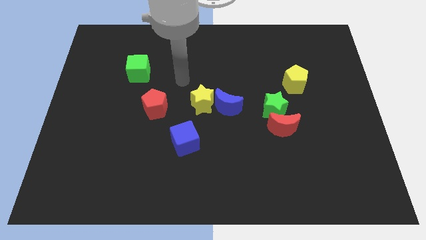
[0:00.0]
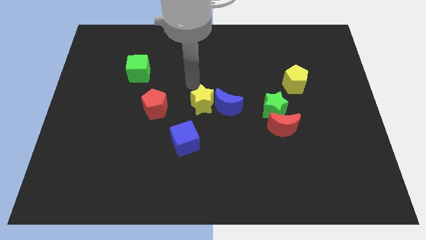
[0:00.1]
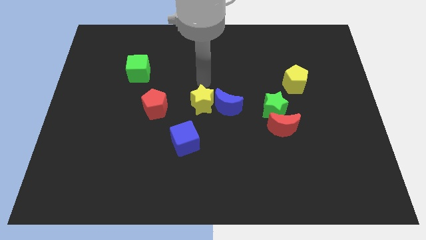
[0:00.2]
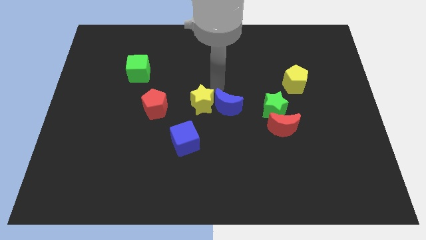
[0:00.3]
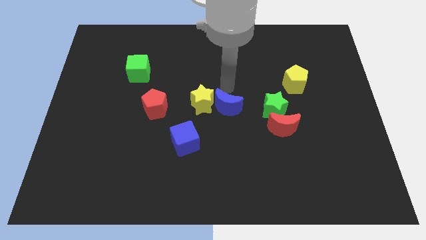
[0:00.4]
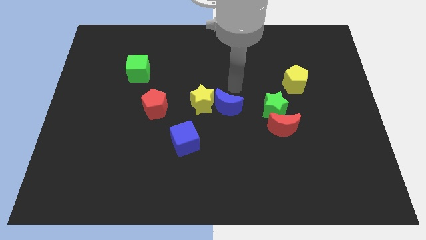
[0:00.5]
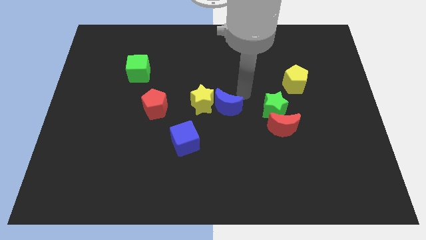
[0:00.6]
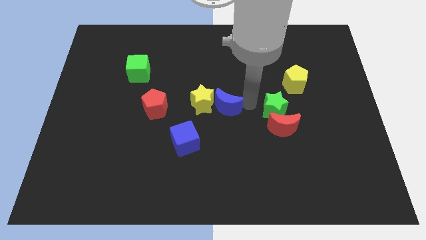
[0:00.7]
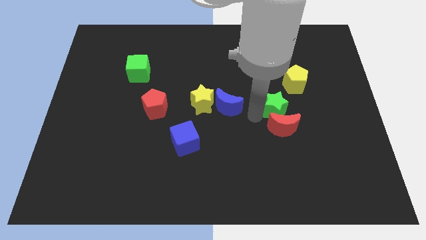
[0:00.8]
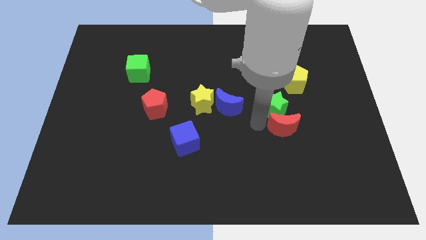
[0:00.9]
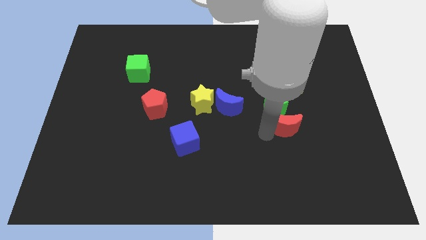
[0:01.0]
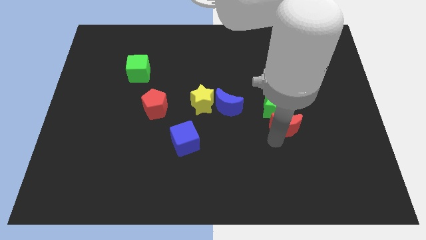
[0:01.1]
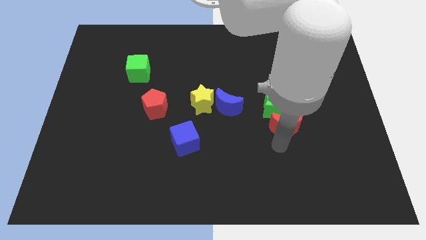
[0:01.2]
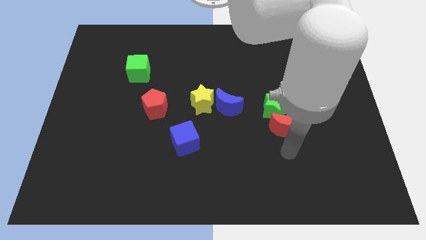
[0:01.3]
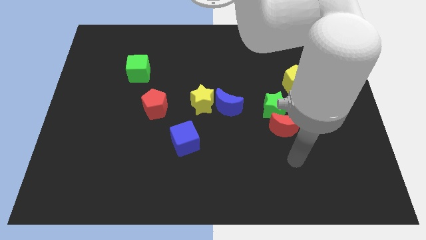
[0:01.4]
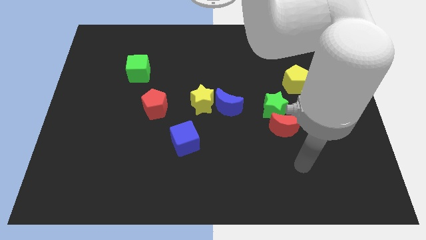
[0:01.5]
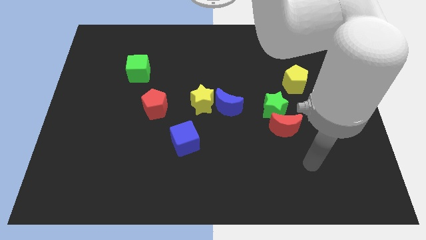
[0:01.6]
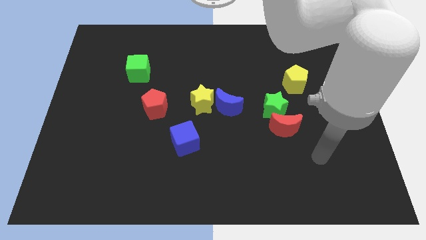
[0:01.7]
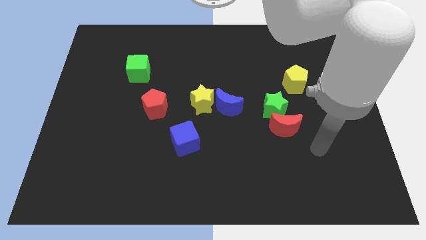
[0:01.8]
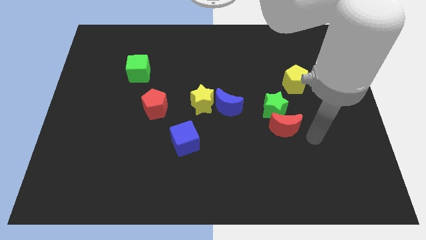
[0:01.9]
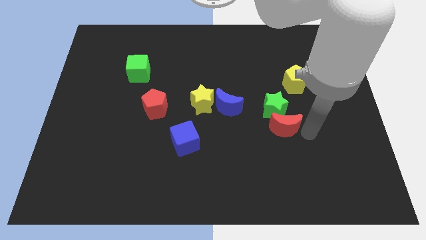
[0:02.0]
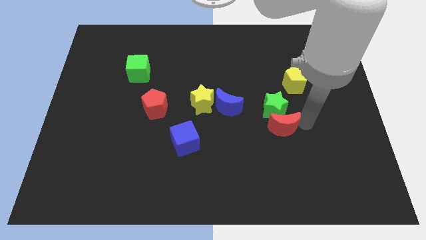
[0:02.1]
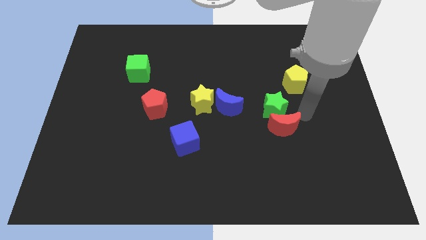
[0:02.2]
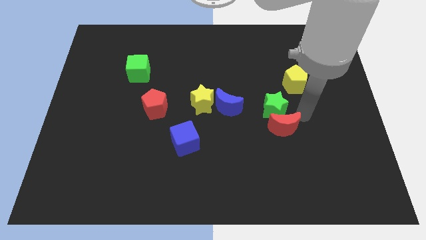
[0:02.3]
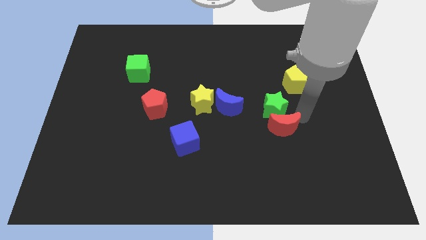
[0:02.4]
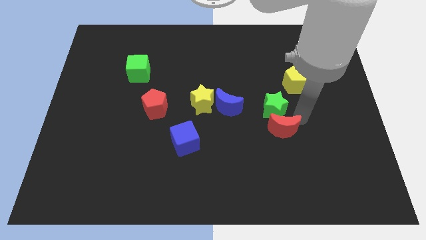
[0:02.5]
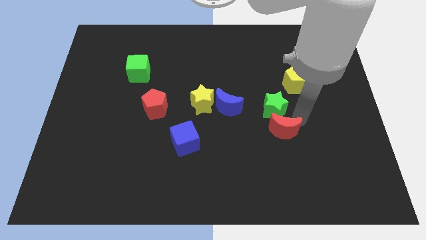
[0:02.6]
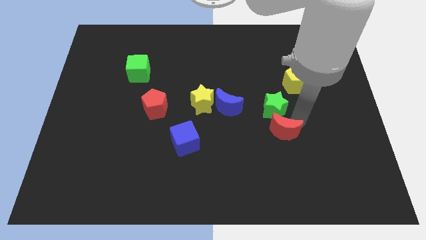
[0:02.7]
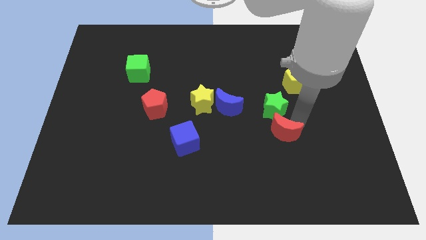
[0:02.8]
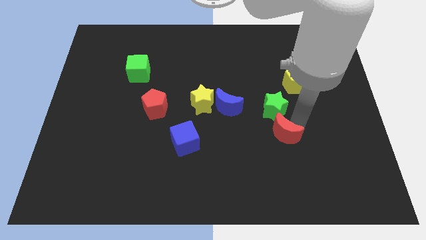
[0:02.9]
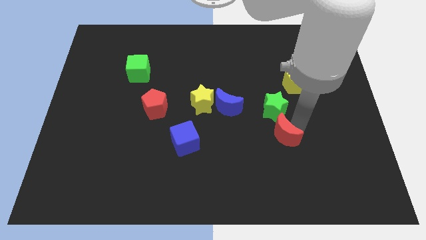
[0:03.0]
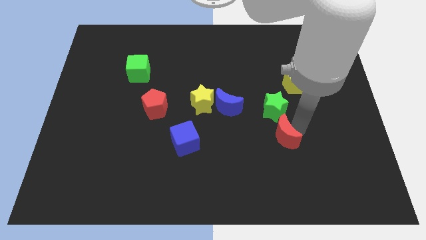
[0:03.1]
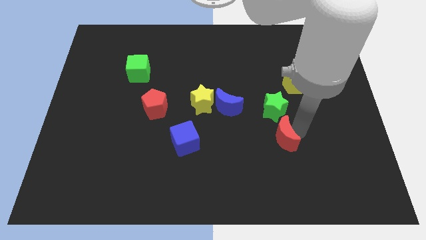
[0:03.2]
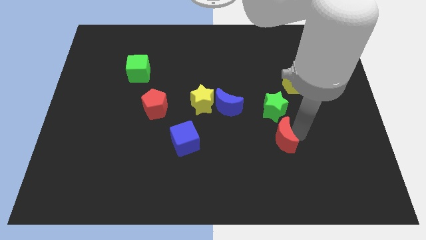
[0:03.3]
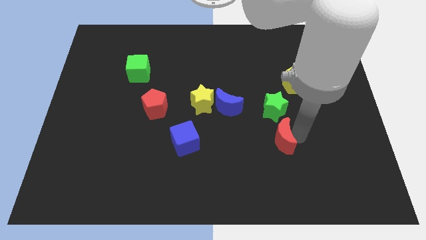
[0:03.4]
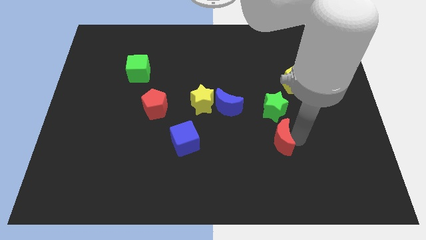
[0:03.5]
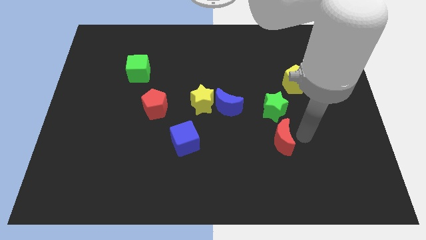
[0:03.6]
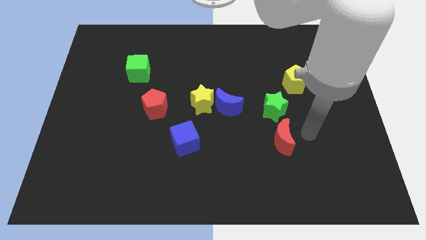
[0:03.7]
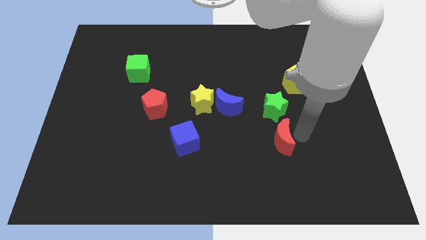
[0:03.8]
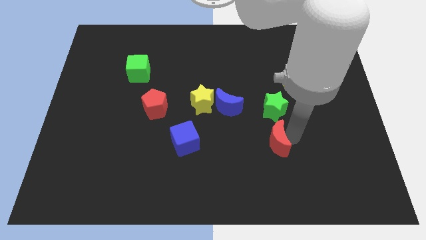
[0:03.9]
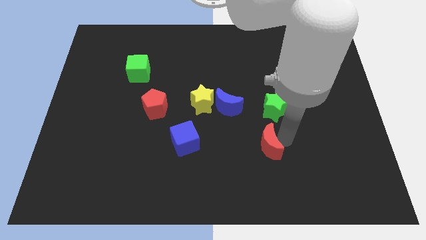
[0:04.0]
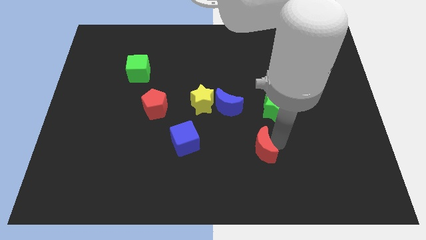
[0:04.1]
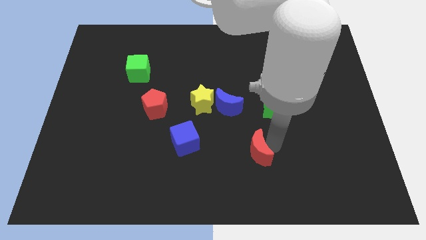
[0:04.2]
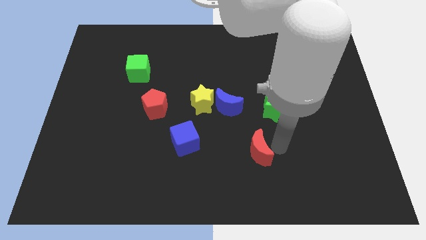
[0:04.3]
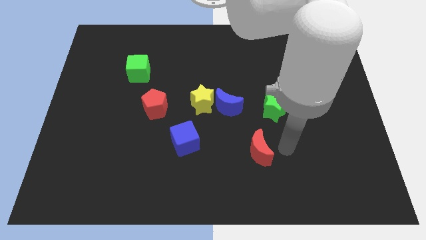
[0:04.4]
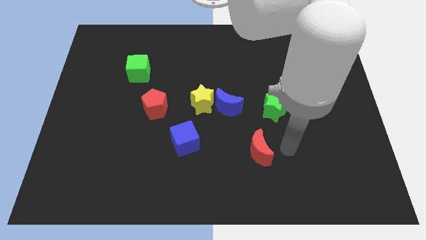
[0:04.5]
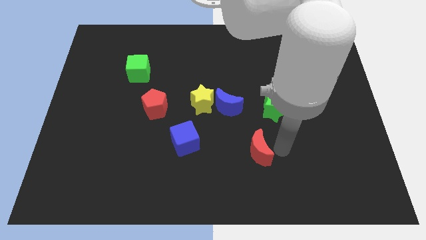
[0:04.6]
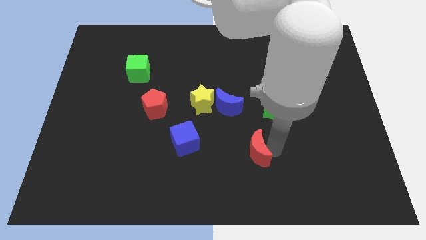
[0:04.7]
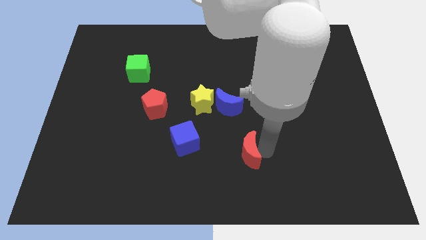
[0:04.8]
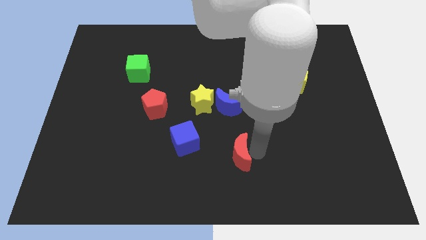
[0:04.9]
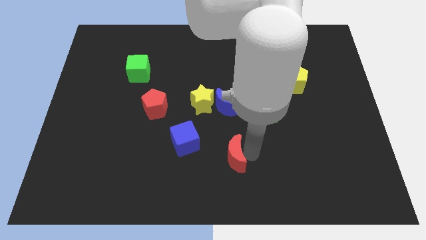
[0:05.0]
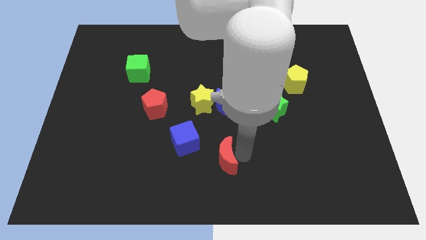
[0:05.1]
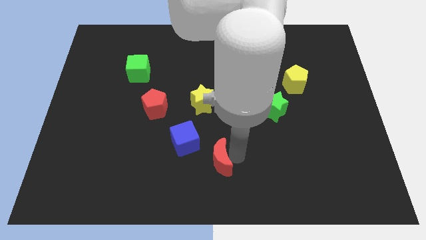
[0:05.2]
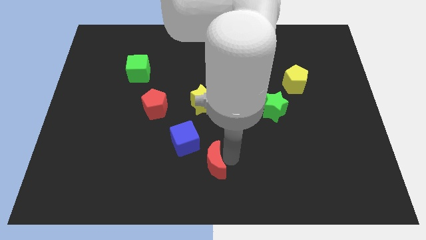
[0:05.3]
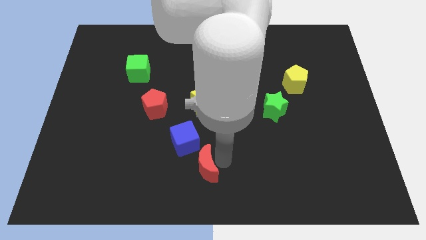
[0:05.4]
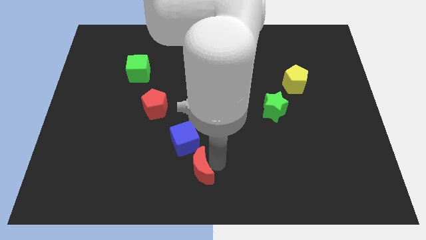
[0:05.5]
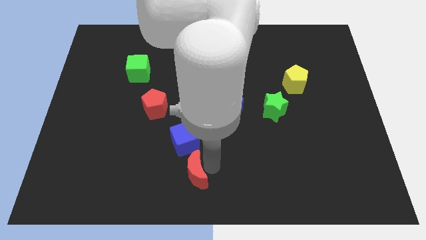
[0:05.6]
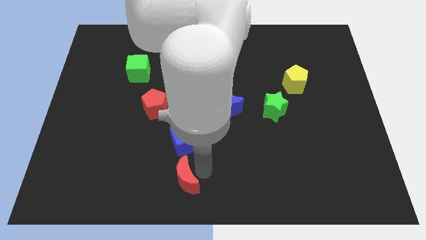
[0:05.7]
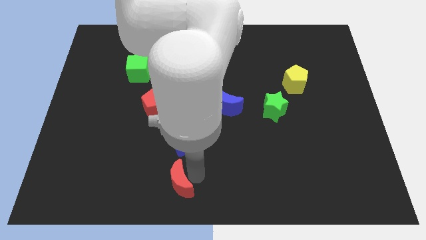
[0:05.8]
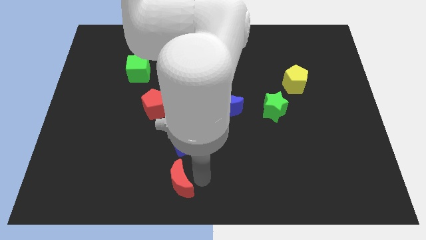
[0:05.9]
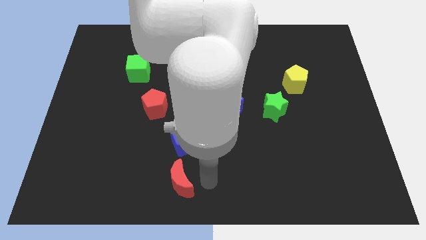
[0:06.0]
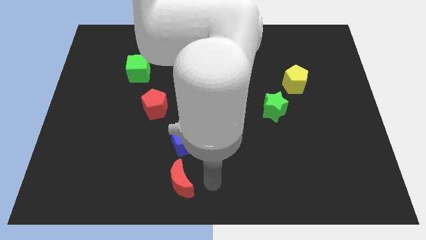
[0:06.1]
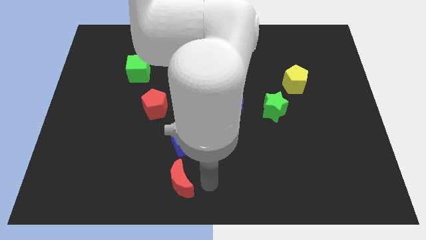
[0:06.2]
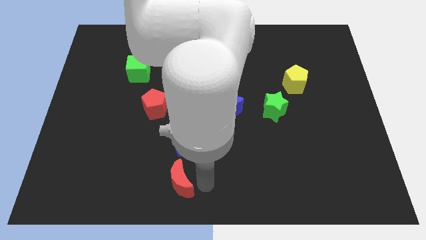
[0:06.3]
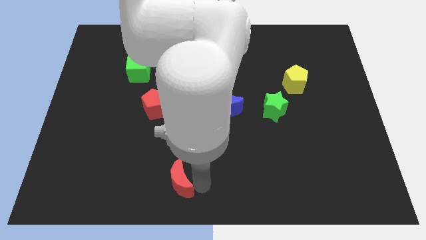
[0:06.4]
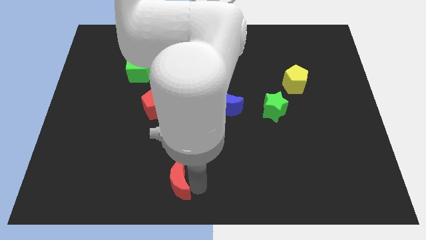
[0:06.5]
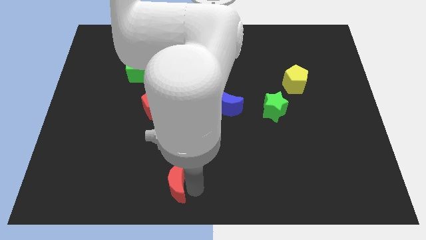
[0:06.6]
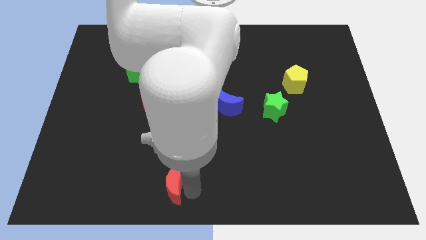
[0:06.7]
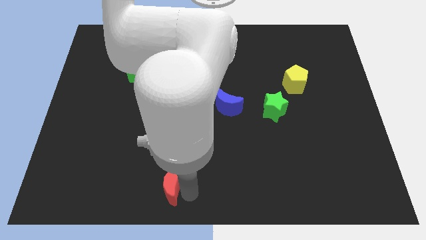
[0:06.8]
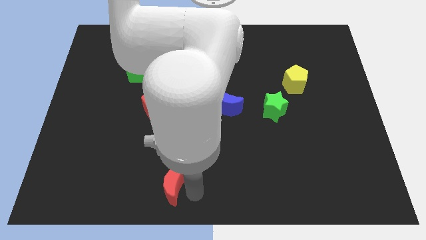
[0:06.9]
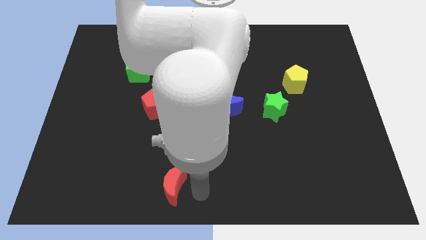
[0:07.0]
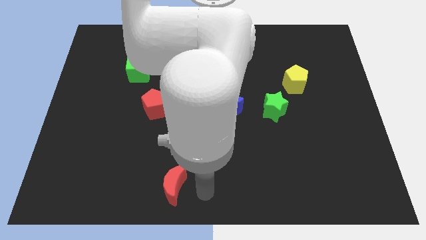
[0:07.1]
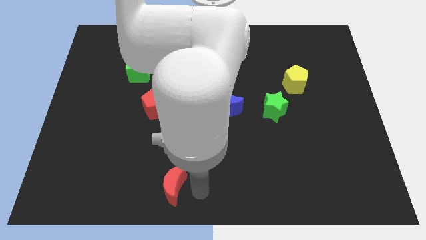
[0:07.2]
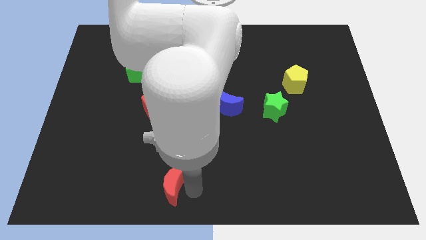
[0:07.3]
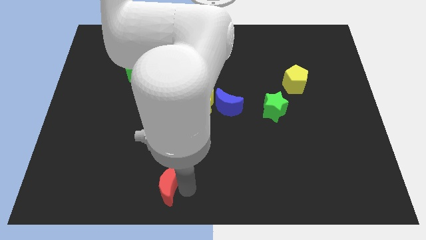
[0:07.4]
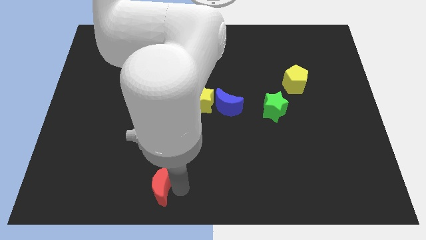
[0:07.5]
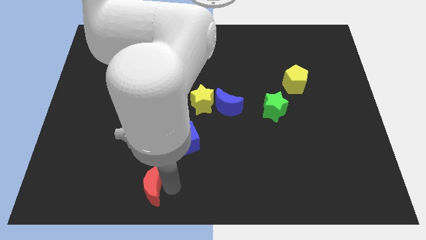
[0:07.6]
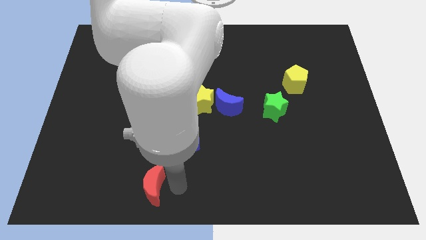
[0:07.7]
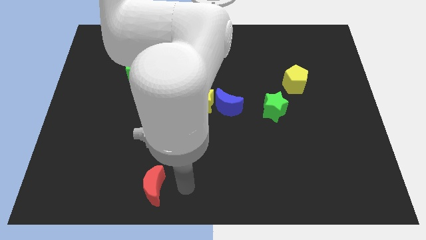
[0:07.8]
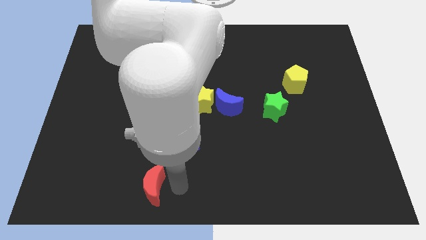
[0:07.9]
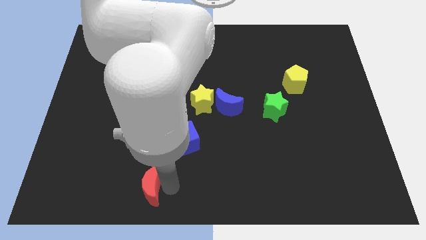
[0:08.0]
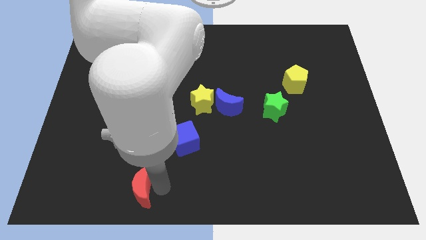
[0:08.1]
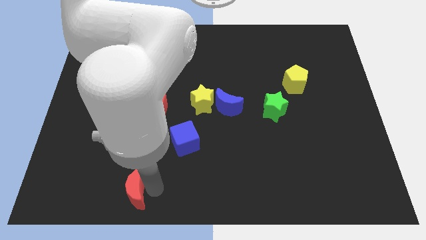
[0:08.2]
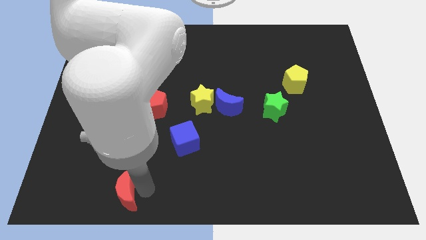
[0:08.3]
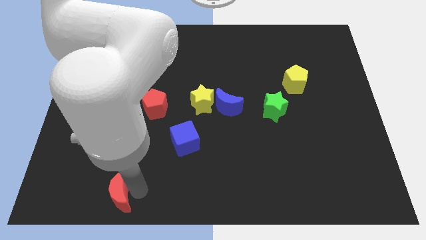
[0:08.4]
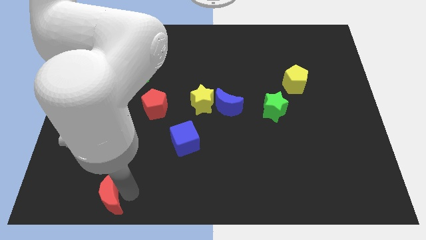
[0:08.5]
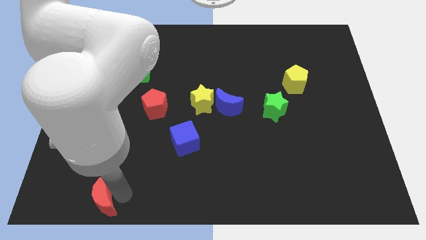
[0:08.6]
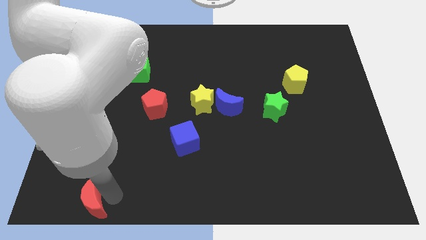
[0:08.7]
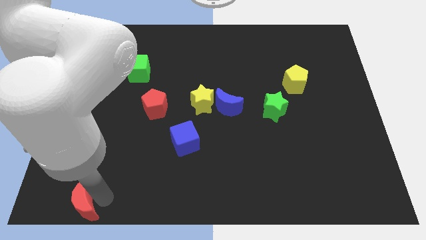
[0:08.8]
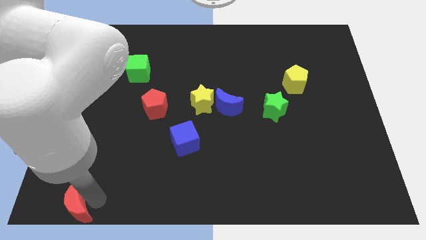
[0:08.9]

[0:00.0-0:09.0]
move the red moon to the bottom left corner
